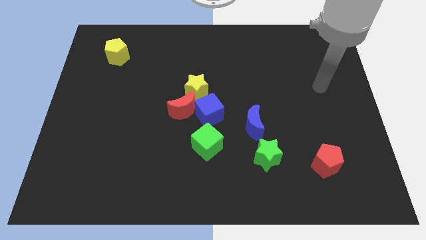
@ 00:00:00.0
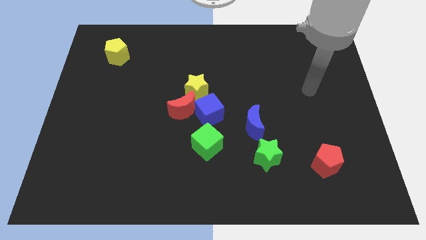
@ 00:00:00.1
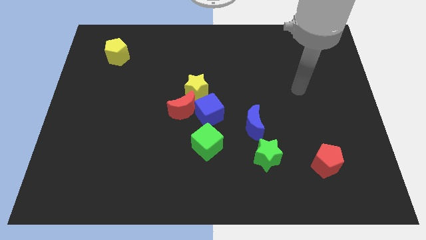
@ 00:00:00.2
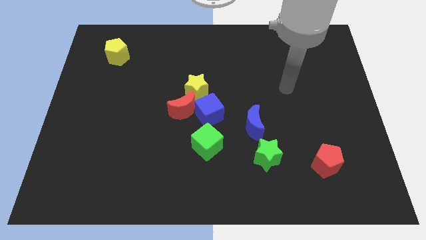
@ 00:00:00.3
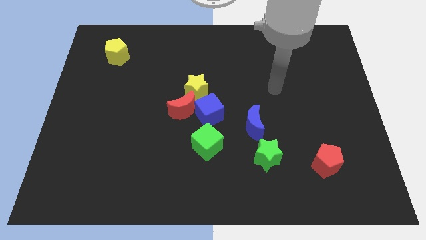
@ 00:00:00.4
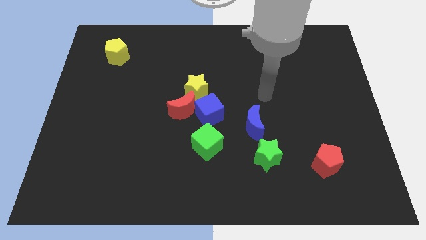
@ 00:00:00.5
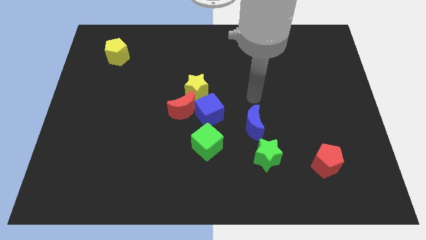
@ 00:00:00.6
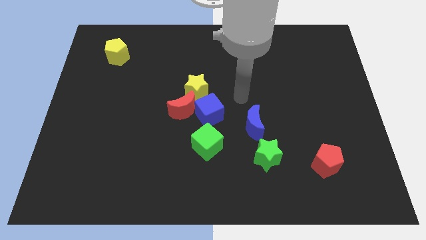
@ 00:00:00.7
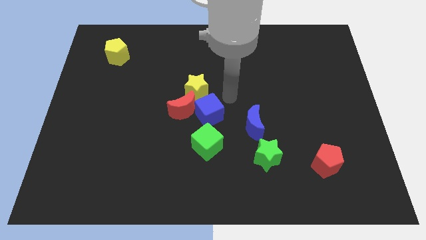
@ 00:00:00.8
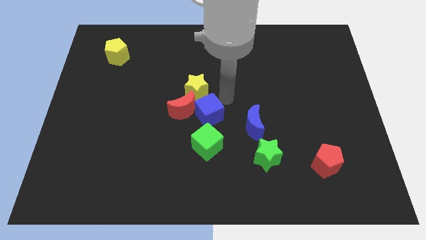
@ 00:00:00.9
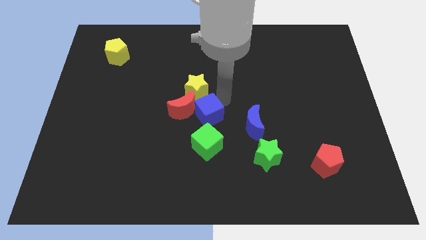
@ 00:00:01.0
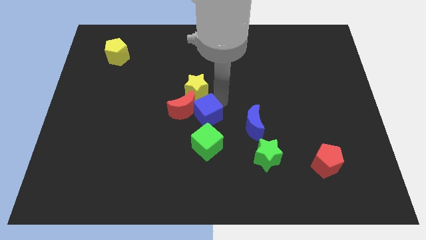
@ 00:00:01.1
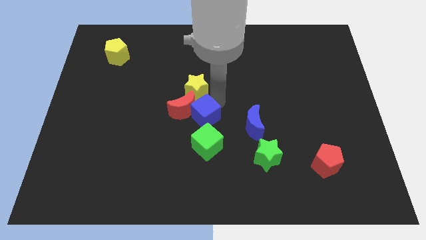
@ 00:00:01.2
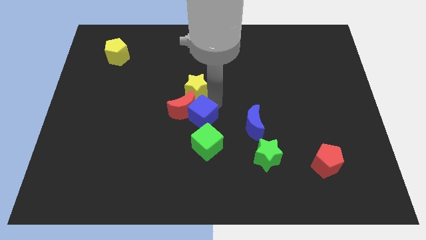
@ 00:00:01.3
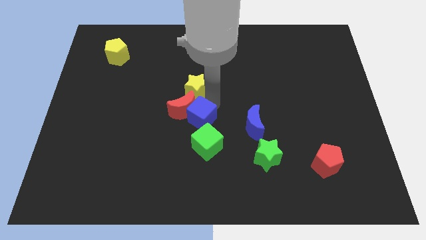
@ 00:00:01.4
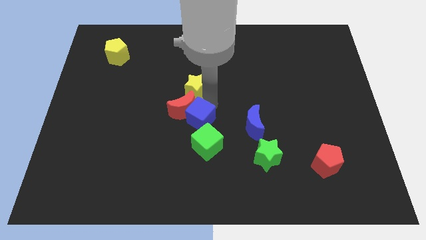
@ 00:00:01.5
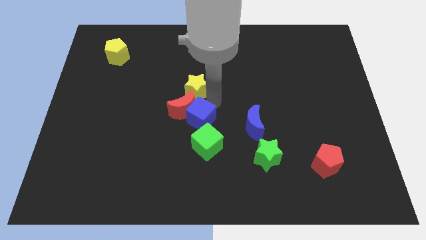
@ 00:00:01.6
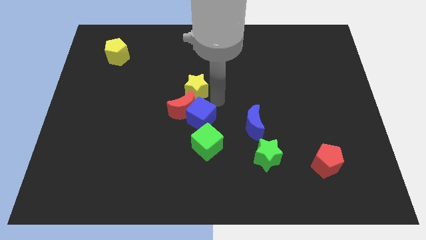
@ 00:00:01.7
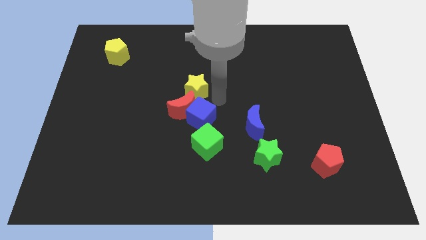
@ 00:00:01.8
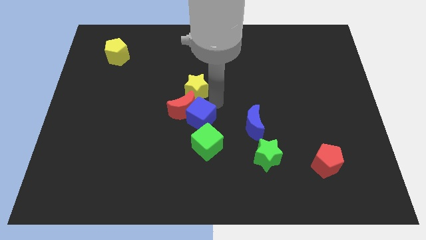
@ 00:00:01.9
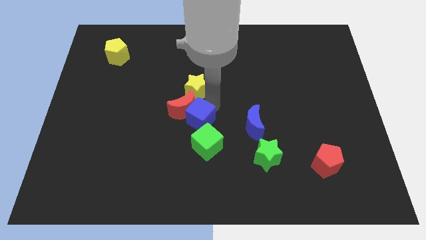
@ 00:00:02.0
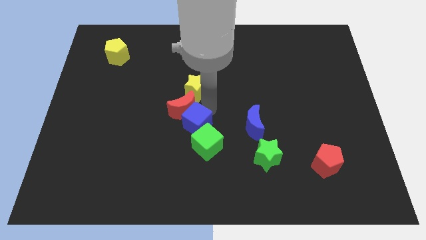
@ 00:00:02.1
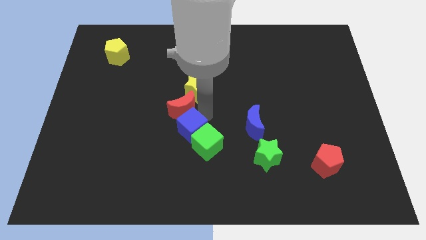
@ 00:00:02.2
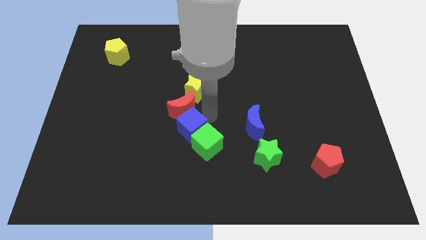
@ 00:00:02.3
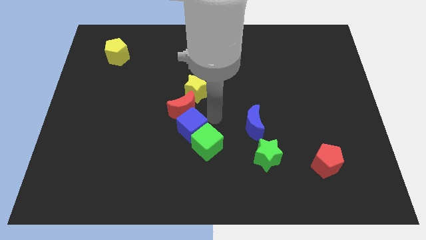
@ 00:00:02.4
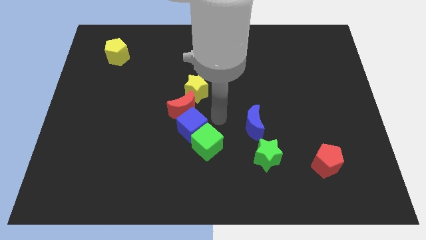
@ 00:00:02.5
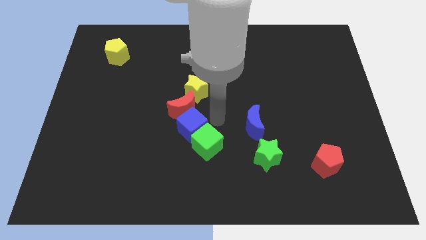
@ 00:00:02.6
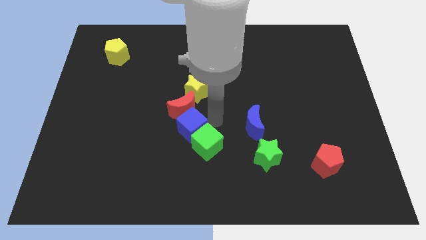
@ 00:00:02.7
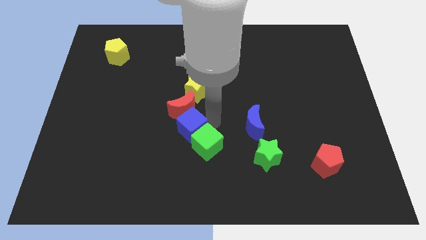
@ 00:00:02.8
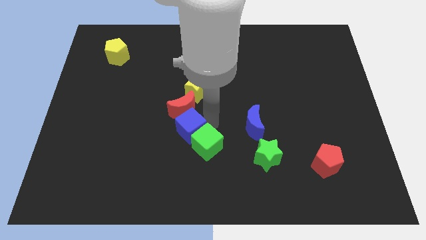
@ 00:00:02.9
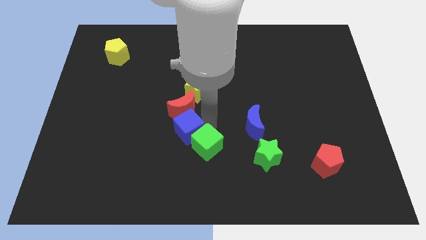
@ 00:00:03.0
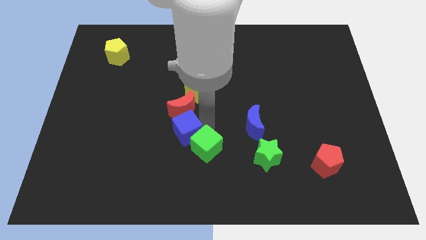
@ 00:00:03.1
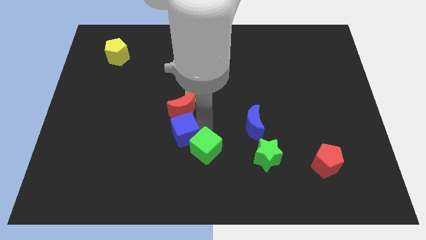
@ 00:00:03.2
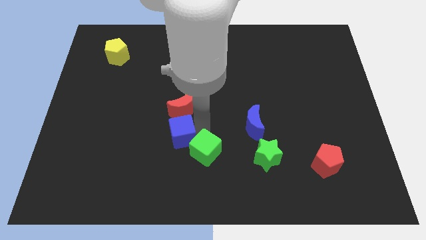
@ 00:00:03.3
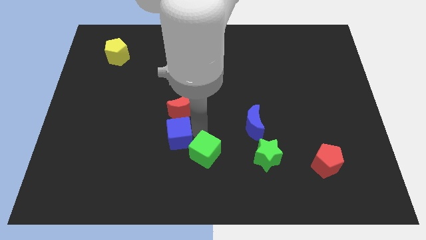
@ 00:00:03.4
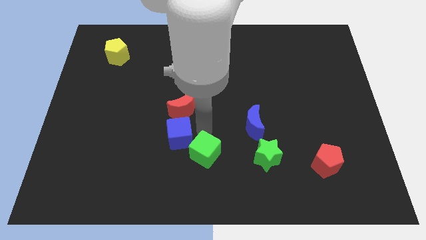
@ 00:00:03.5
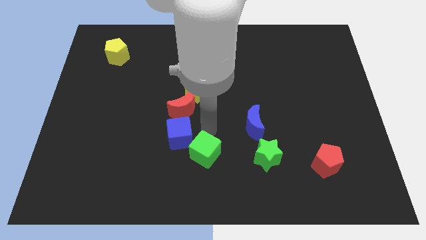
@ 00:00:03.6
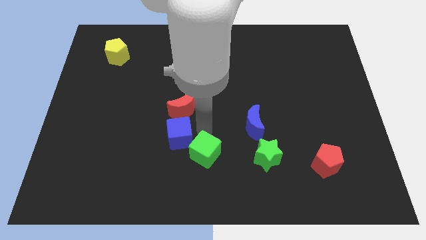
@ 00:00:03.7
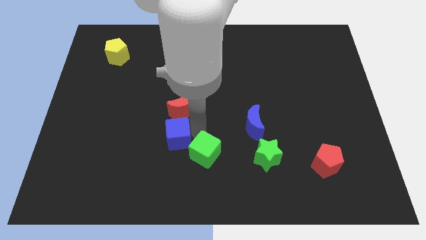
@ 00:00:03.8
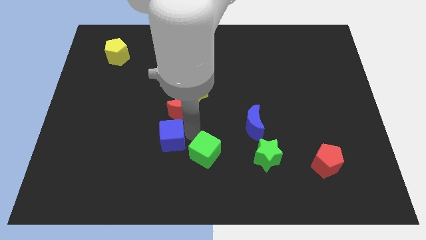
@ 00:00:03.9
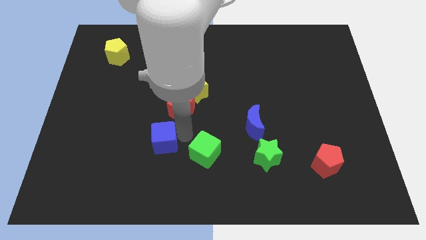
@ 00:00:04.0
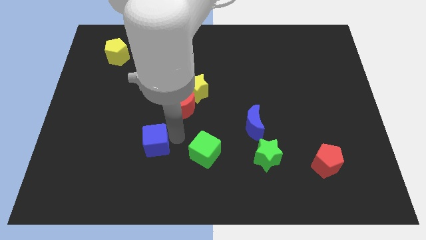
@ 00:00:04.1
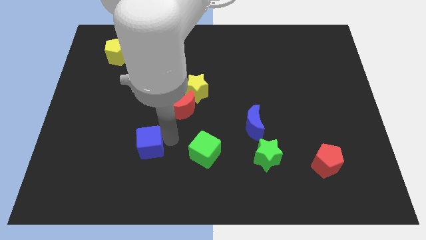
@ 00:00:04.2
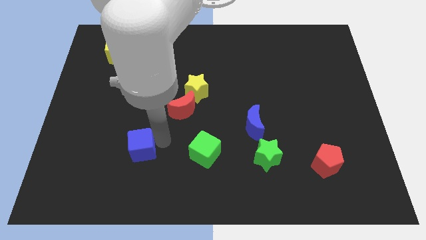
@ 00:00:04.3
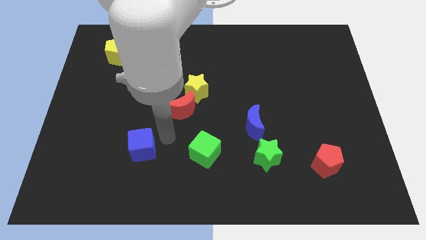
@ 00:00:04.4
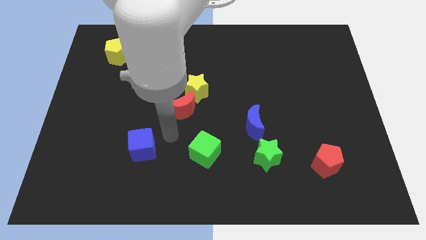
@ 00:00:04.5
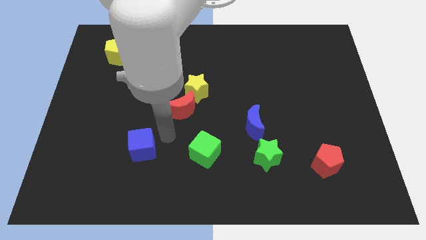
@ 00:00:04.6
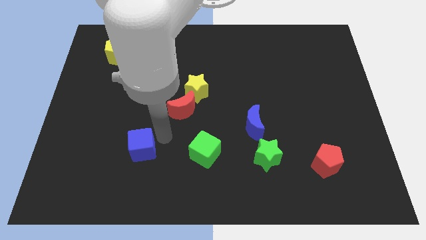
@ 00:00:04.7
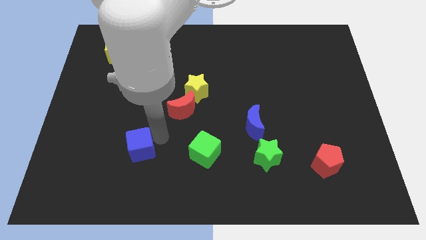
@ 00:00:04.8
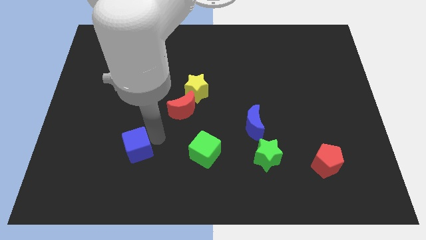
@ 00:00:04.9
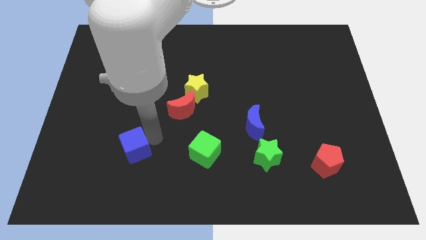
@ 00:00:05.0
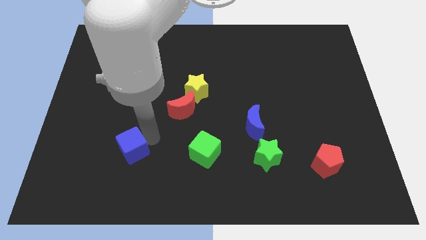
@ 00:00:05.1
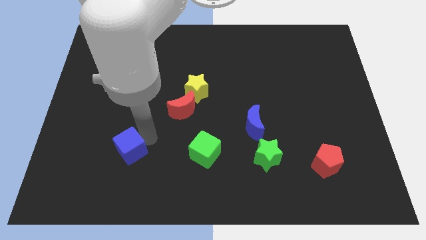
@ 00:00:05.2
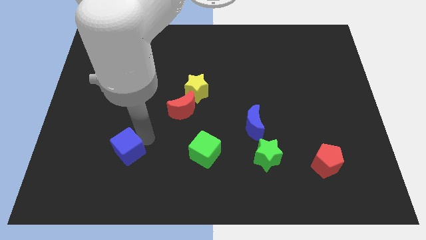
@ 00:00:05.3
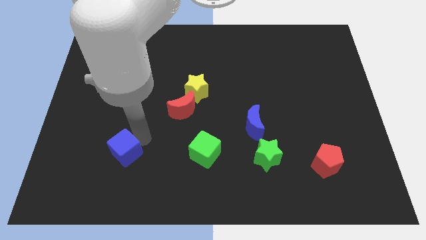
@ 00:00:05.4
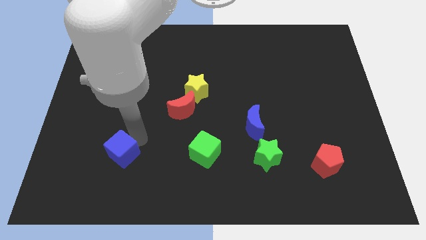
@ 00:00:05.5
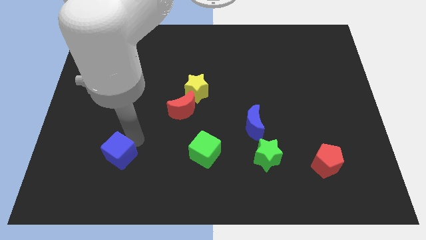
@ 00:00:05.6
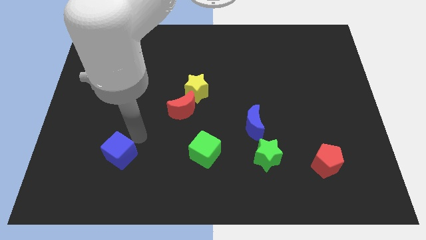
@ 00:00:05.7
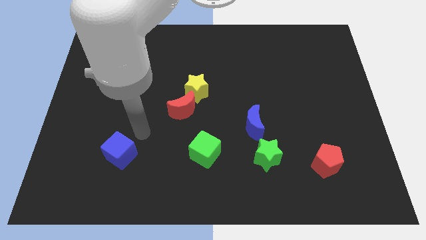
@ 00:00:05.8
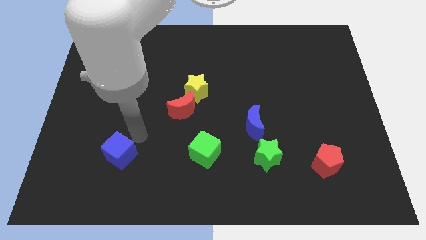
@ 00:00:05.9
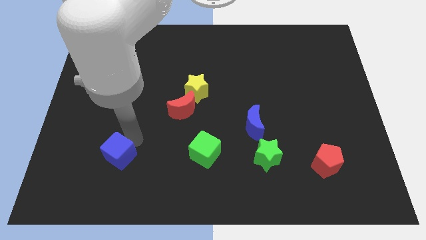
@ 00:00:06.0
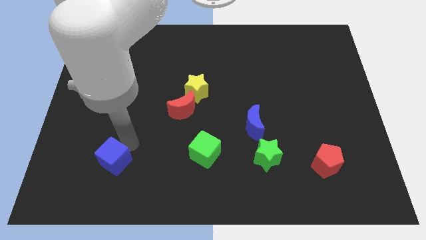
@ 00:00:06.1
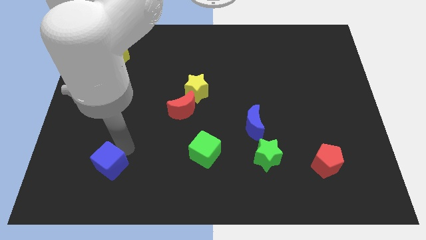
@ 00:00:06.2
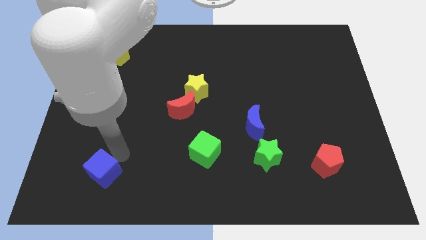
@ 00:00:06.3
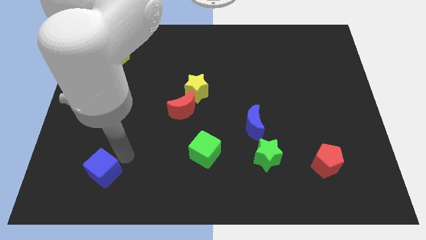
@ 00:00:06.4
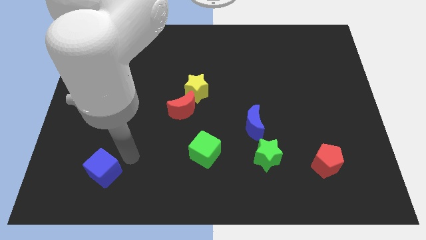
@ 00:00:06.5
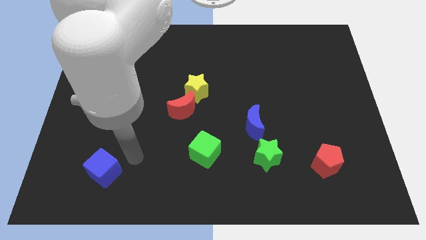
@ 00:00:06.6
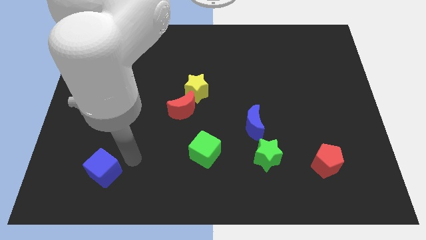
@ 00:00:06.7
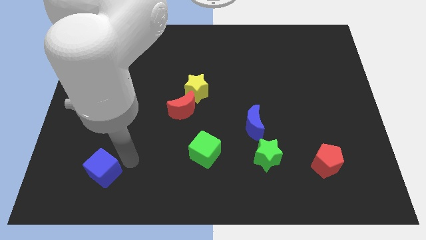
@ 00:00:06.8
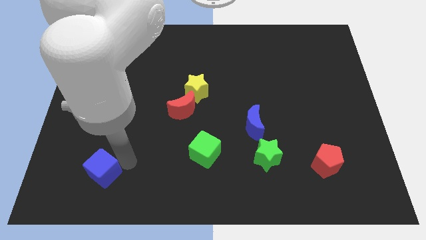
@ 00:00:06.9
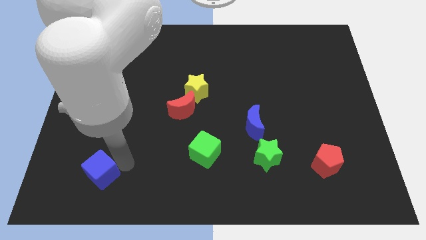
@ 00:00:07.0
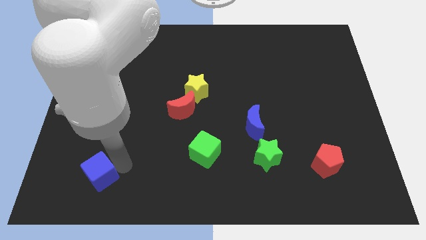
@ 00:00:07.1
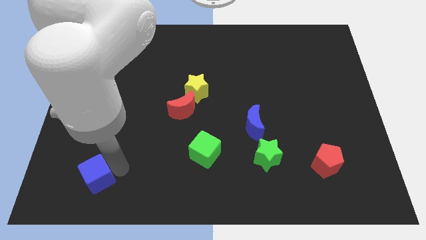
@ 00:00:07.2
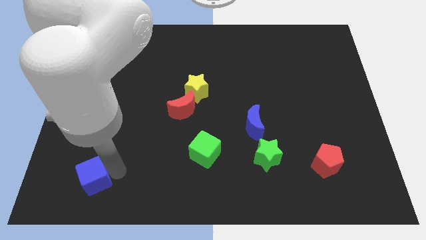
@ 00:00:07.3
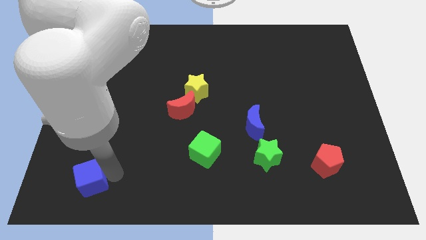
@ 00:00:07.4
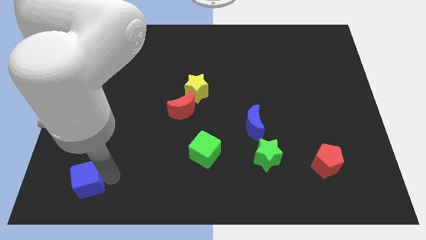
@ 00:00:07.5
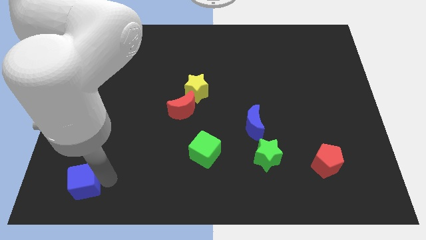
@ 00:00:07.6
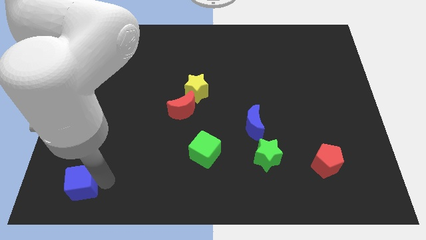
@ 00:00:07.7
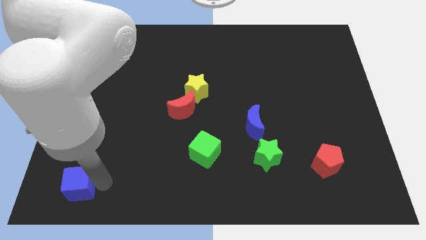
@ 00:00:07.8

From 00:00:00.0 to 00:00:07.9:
push the blue cube to the bottom left of the board
